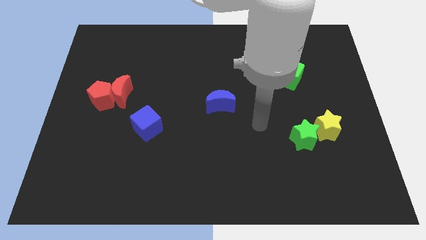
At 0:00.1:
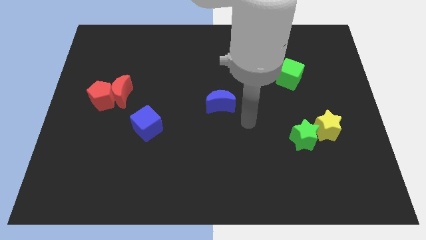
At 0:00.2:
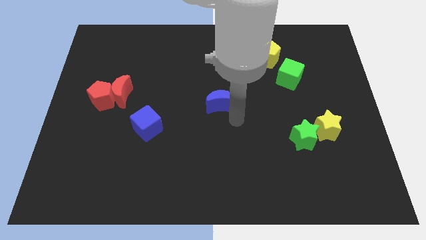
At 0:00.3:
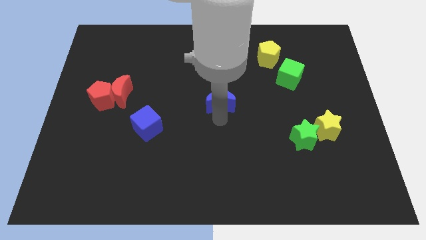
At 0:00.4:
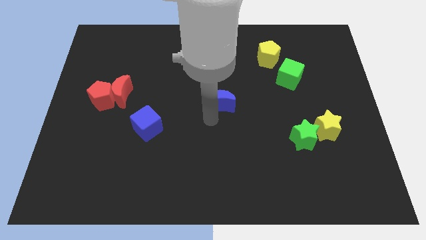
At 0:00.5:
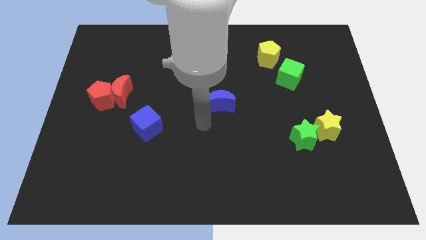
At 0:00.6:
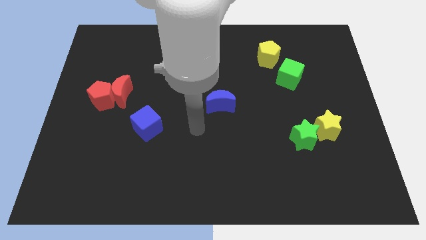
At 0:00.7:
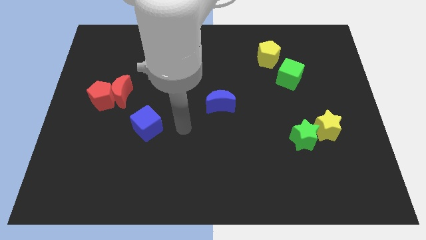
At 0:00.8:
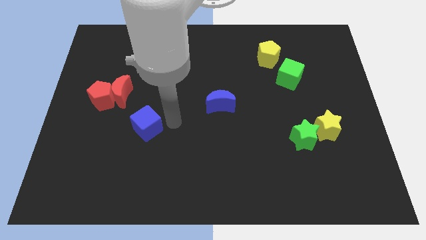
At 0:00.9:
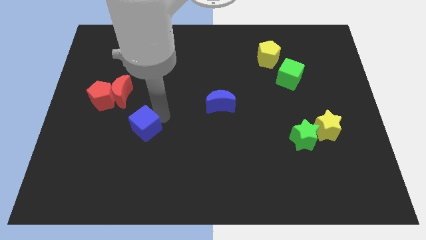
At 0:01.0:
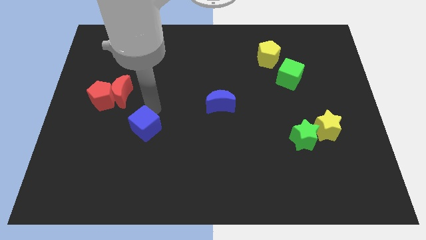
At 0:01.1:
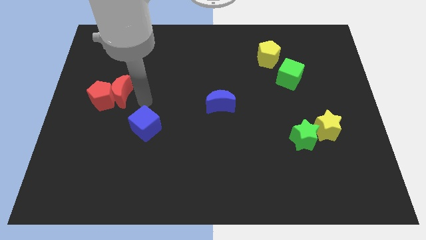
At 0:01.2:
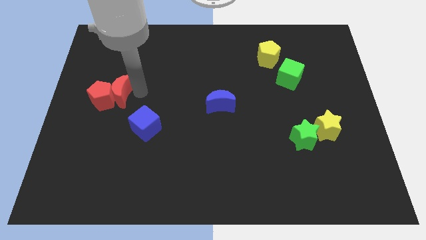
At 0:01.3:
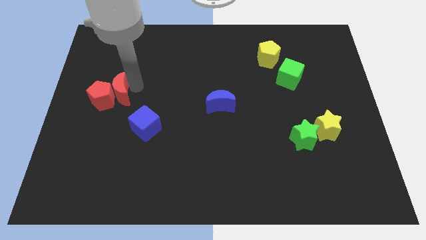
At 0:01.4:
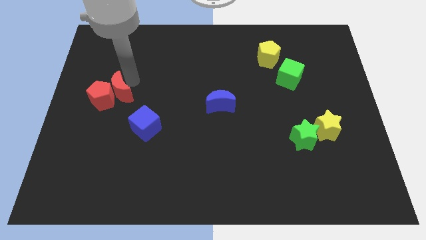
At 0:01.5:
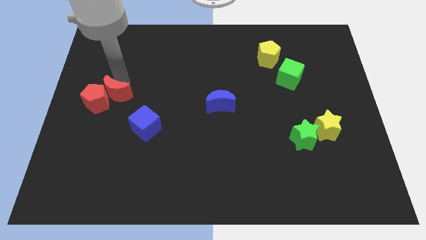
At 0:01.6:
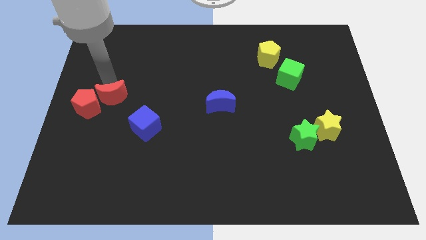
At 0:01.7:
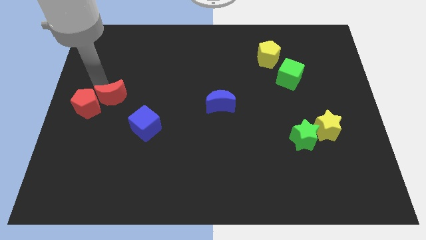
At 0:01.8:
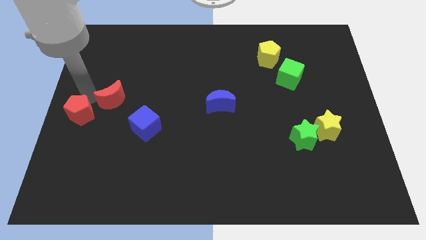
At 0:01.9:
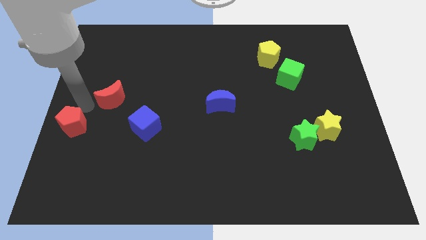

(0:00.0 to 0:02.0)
pull the red moon apart from the red pentagon

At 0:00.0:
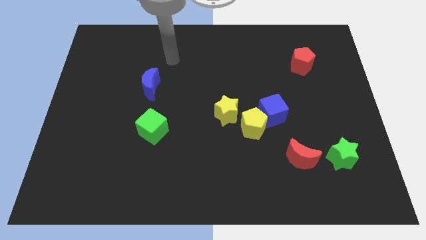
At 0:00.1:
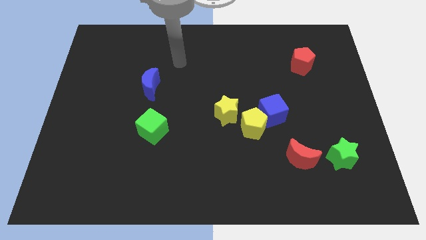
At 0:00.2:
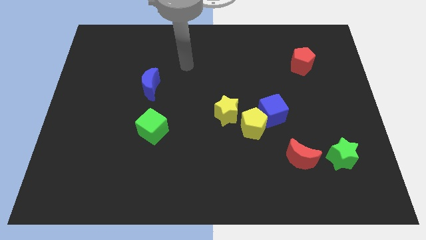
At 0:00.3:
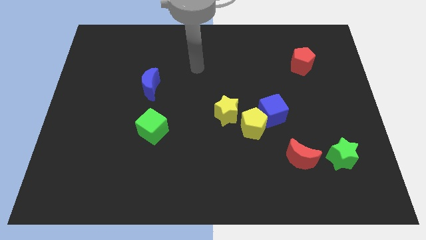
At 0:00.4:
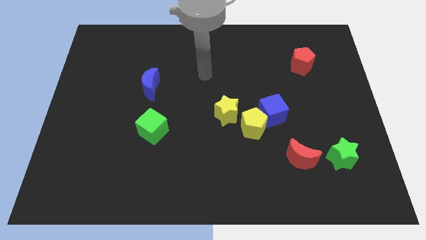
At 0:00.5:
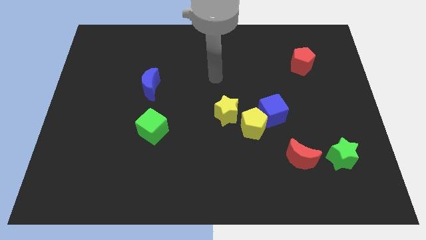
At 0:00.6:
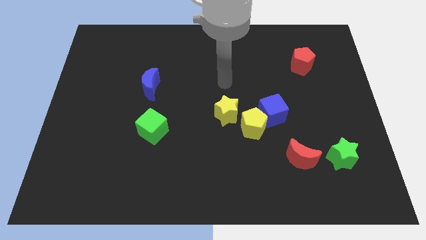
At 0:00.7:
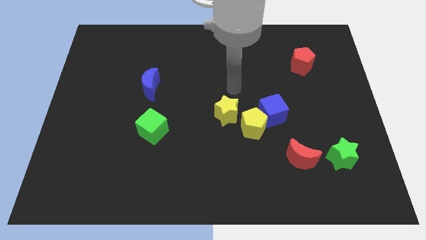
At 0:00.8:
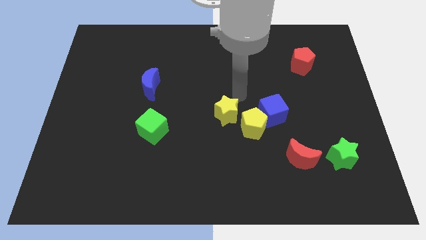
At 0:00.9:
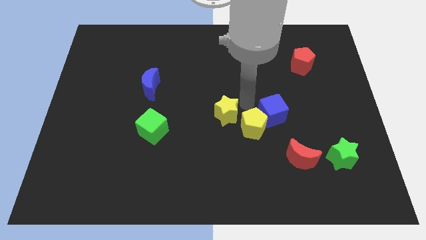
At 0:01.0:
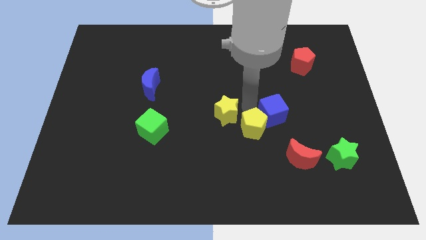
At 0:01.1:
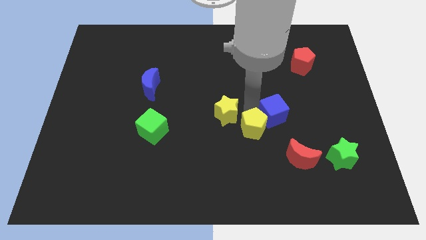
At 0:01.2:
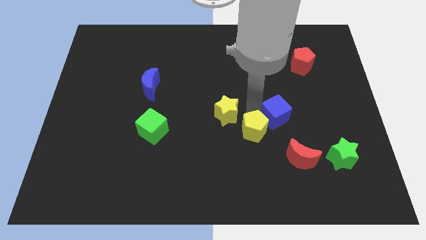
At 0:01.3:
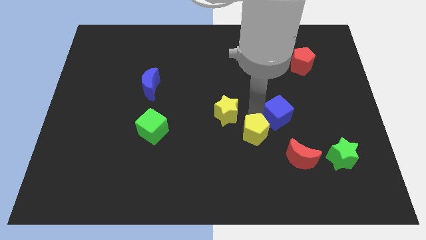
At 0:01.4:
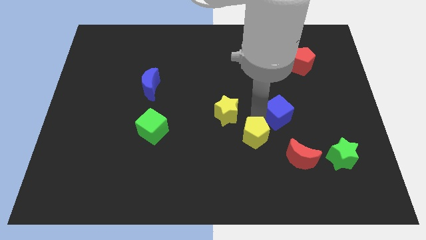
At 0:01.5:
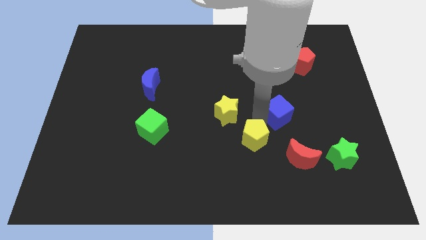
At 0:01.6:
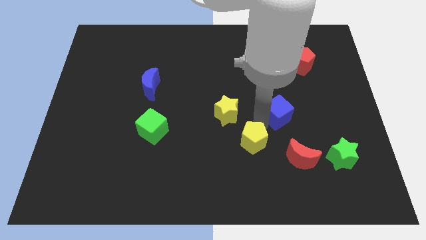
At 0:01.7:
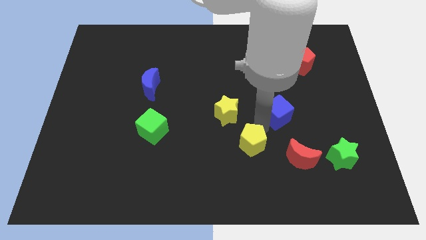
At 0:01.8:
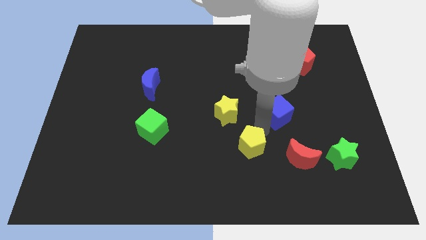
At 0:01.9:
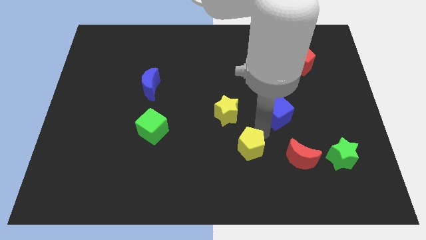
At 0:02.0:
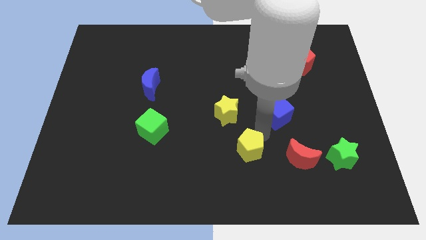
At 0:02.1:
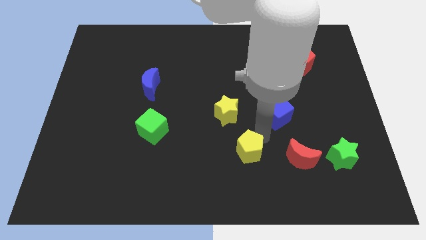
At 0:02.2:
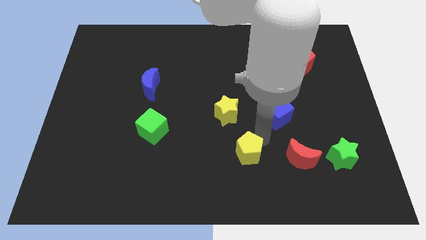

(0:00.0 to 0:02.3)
separate the yellow pentagon from the blue cube and yellow star

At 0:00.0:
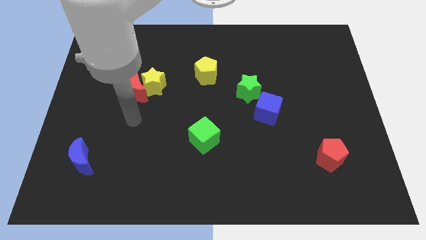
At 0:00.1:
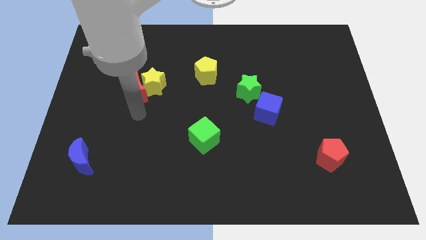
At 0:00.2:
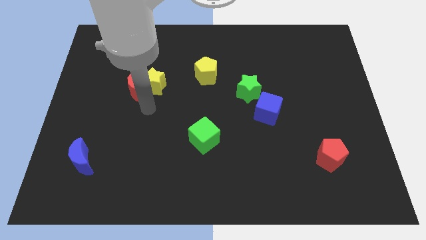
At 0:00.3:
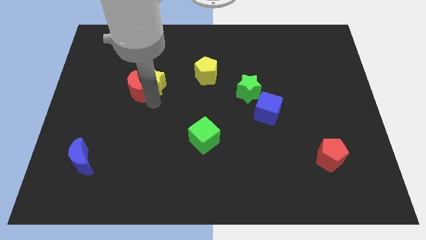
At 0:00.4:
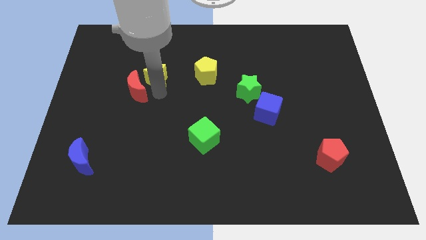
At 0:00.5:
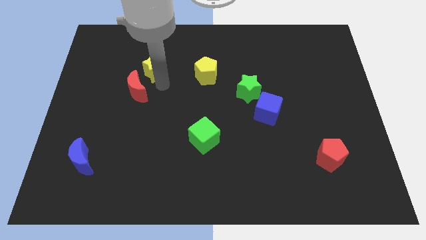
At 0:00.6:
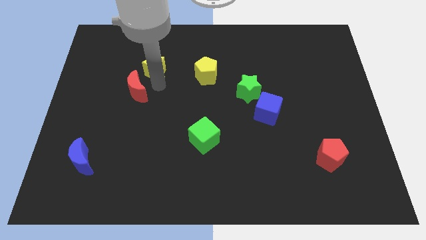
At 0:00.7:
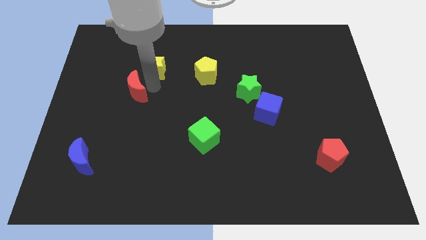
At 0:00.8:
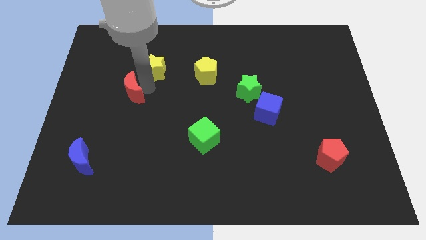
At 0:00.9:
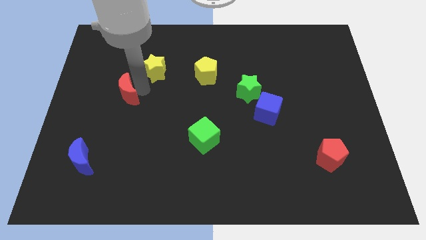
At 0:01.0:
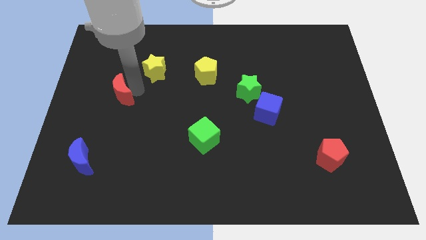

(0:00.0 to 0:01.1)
move the red moon away from the yellow star

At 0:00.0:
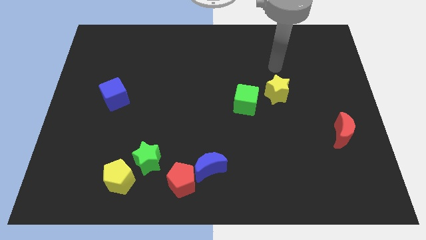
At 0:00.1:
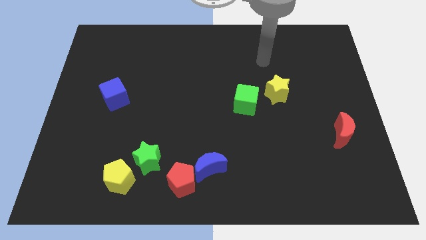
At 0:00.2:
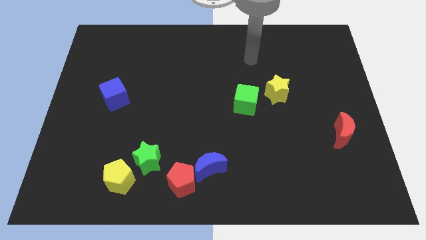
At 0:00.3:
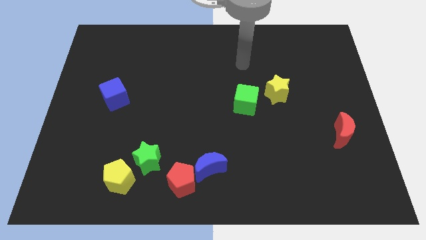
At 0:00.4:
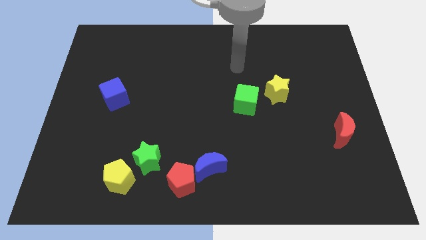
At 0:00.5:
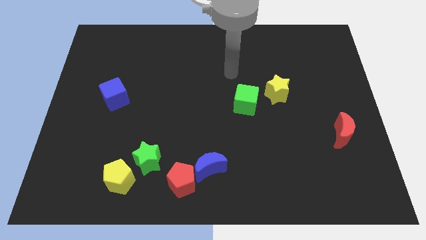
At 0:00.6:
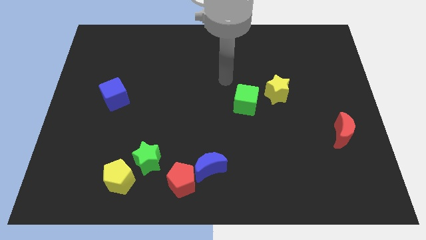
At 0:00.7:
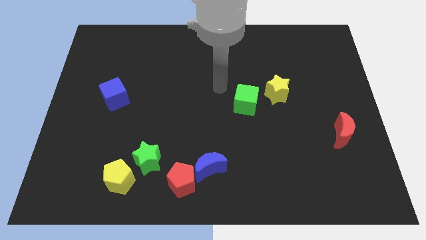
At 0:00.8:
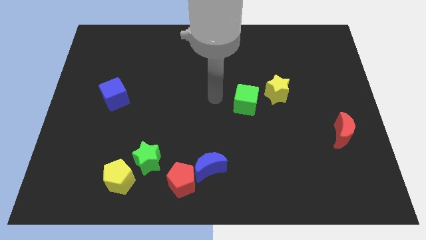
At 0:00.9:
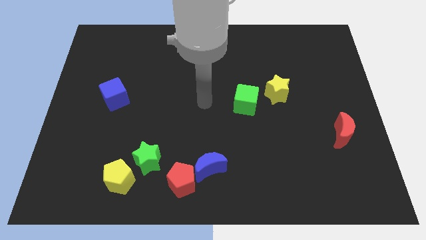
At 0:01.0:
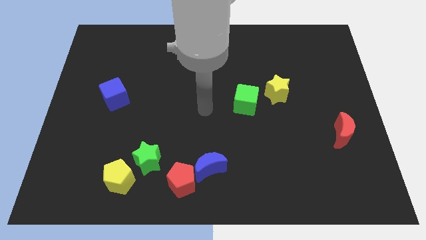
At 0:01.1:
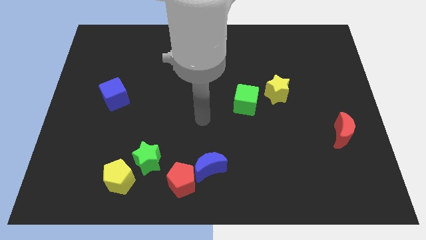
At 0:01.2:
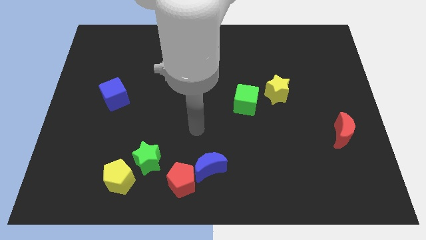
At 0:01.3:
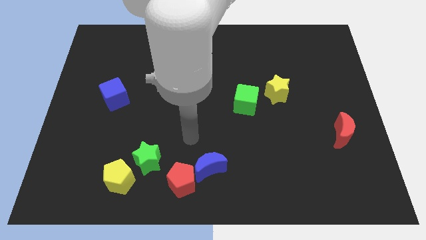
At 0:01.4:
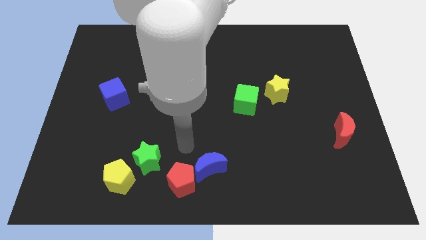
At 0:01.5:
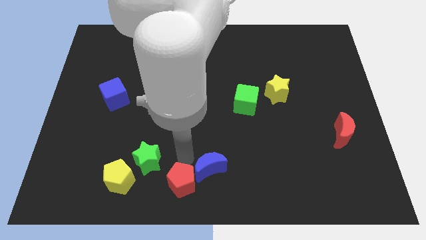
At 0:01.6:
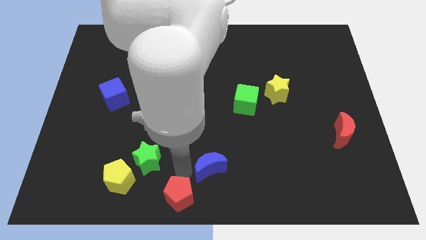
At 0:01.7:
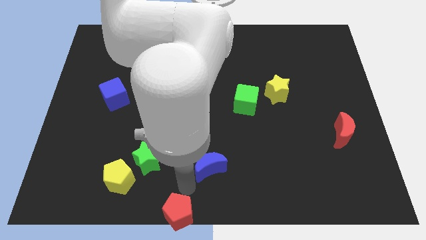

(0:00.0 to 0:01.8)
move the blue moon away from the red pentagon

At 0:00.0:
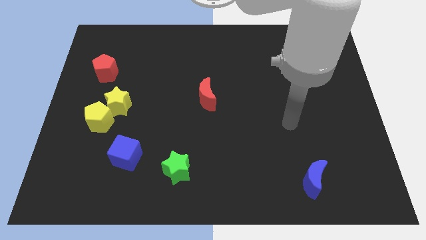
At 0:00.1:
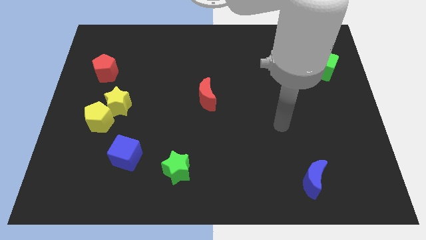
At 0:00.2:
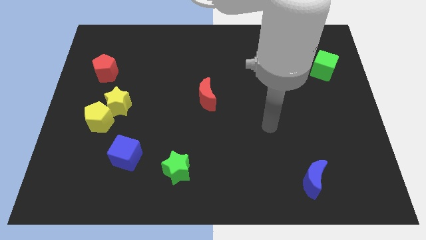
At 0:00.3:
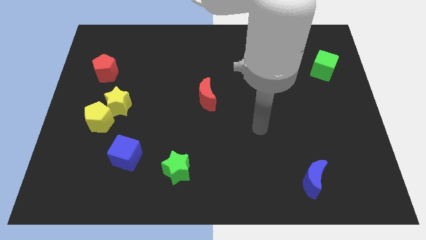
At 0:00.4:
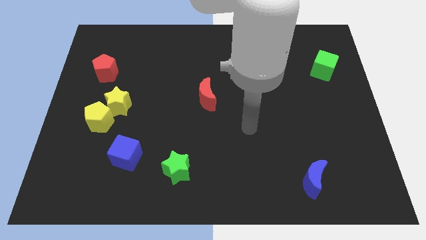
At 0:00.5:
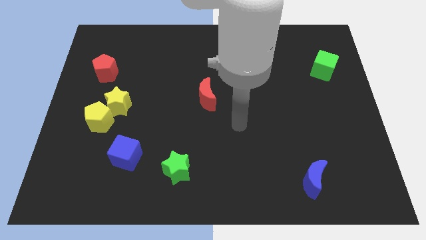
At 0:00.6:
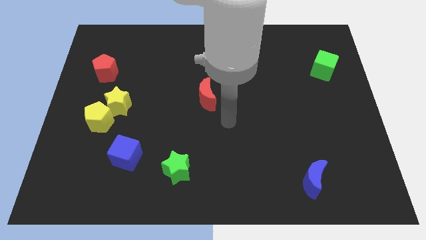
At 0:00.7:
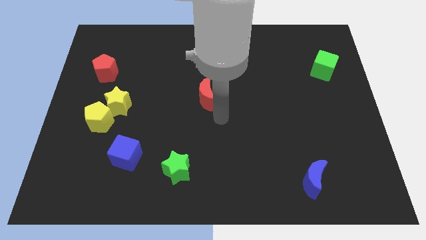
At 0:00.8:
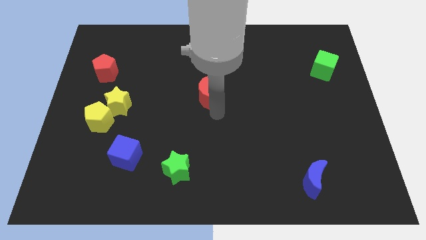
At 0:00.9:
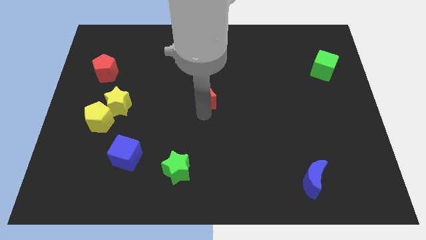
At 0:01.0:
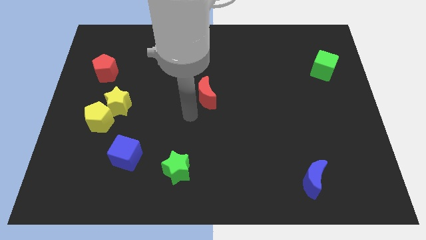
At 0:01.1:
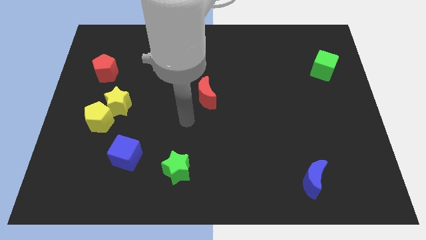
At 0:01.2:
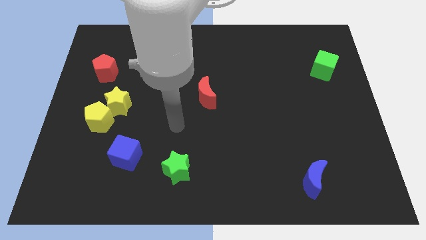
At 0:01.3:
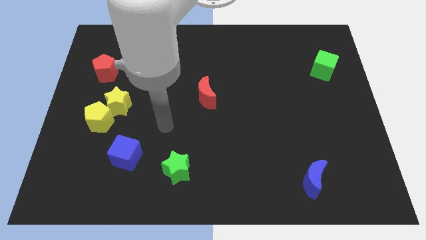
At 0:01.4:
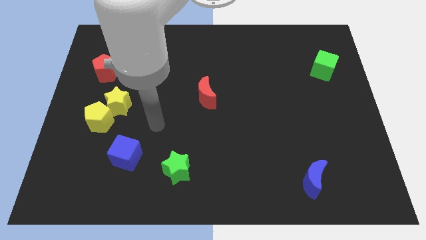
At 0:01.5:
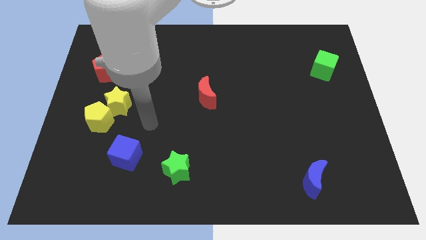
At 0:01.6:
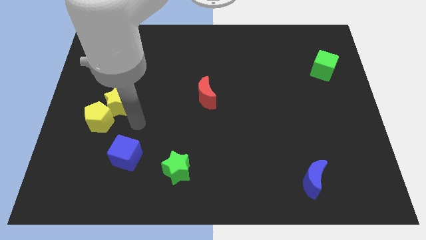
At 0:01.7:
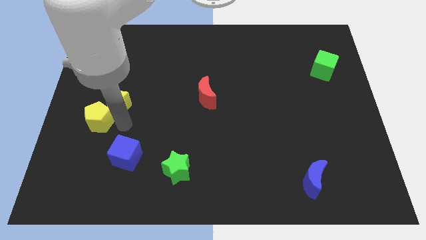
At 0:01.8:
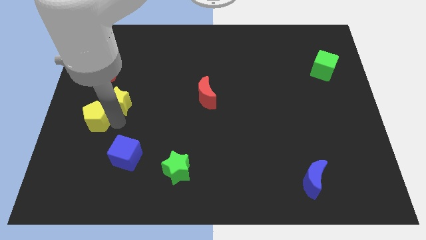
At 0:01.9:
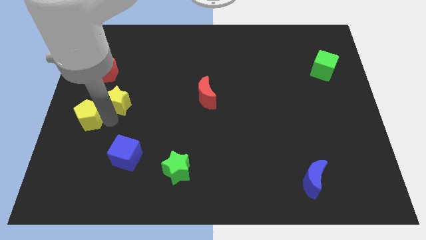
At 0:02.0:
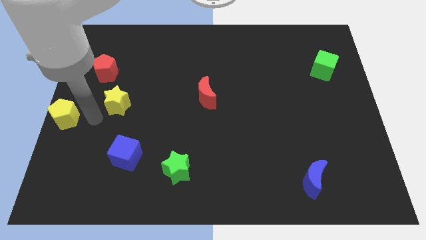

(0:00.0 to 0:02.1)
separate the yellow star from the yellow pentagon

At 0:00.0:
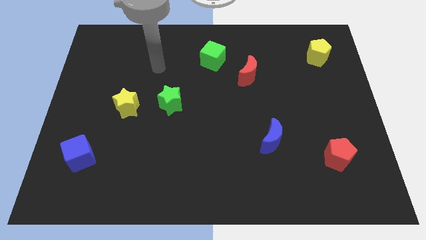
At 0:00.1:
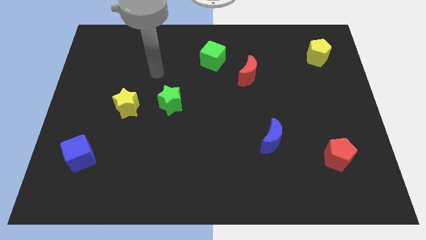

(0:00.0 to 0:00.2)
move the green star away from the yellow star
